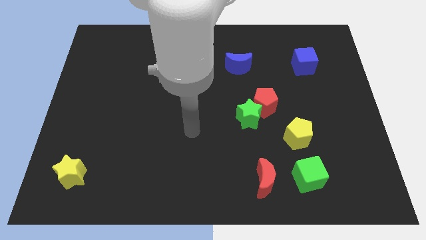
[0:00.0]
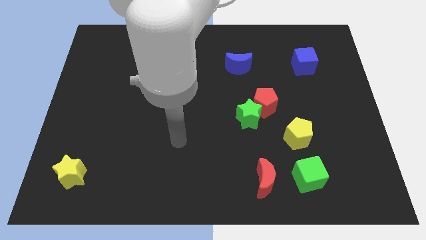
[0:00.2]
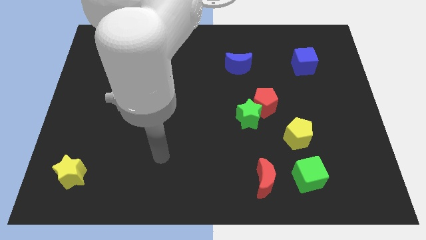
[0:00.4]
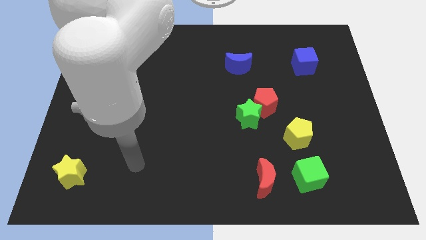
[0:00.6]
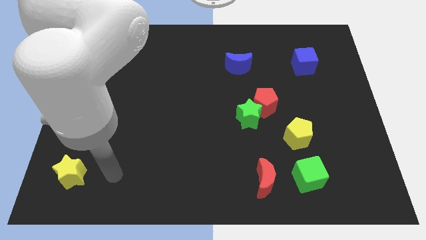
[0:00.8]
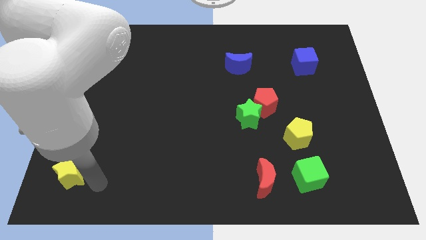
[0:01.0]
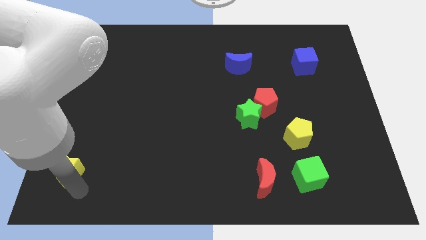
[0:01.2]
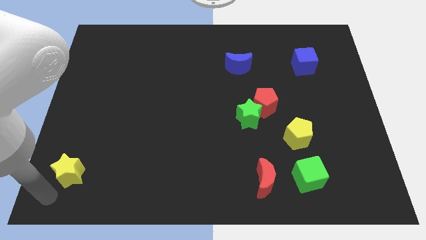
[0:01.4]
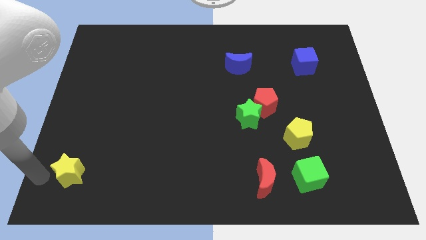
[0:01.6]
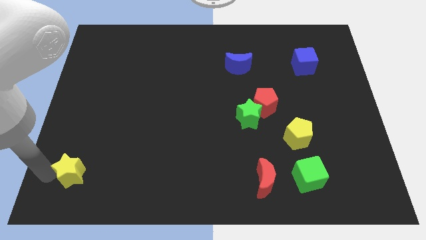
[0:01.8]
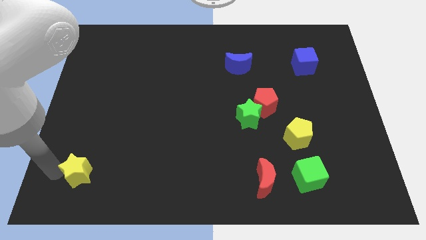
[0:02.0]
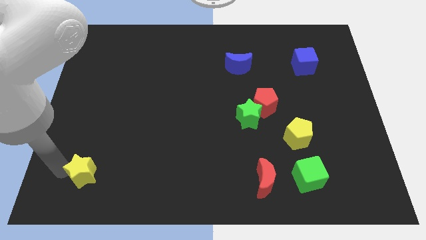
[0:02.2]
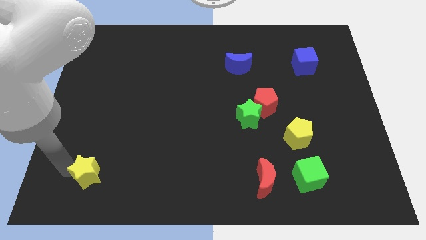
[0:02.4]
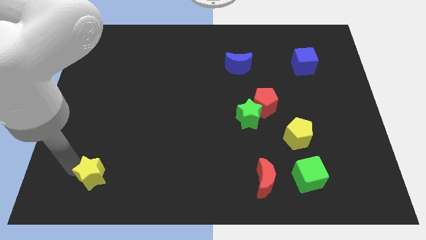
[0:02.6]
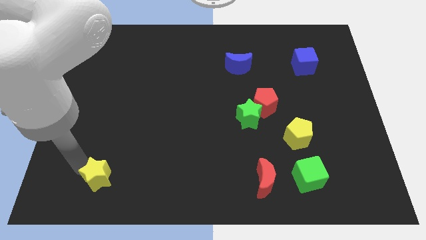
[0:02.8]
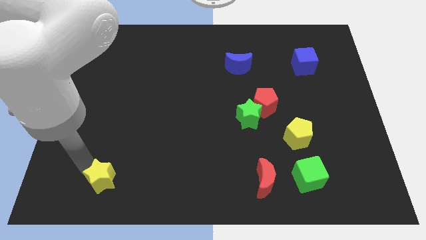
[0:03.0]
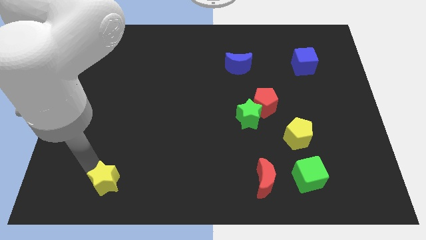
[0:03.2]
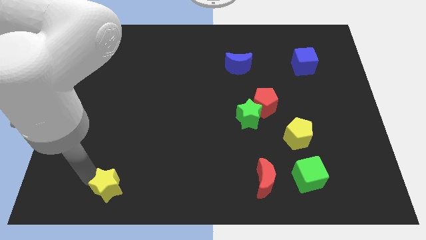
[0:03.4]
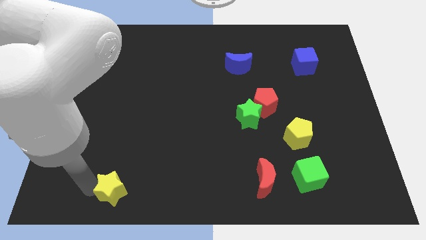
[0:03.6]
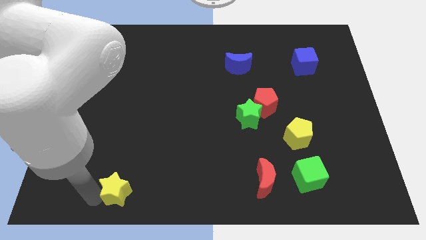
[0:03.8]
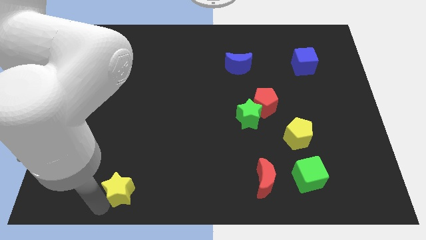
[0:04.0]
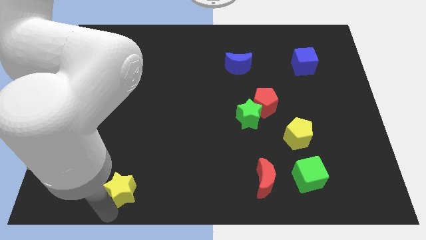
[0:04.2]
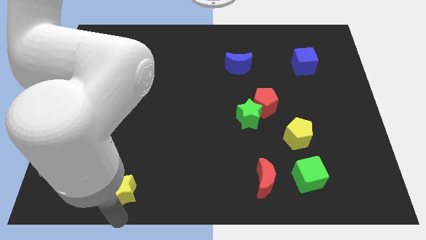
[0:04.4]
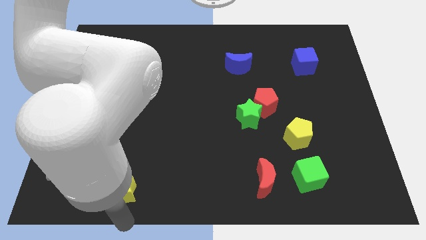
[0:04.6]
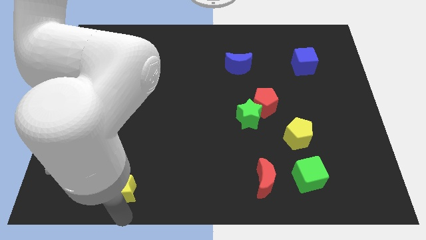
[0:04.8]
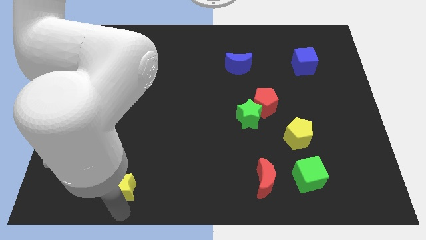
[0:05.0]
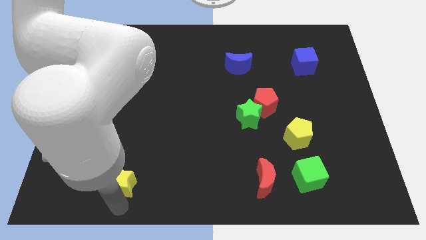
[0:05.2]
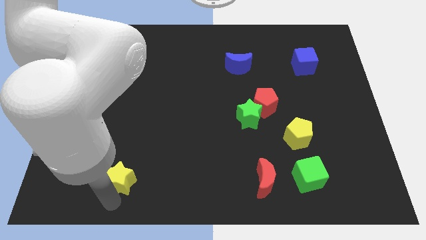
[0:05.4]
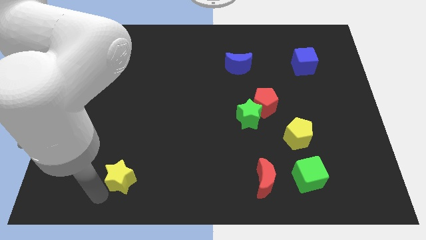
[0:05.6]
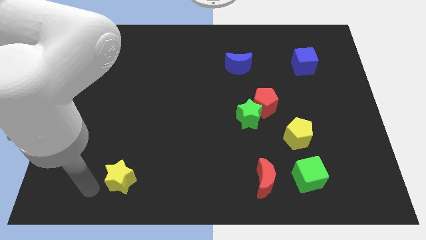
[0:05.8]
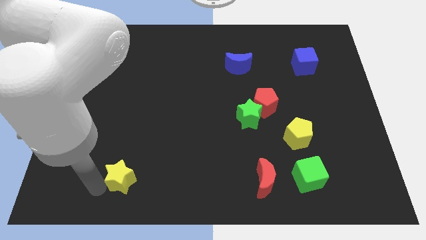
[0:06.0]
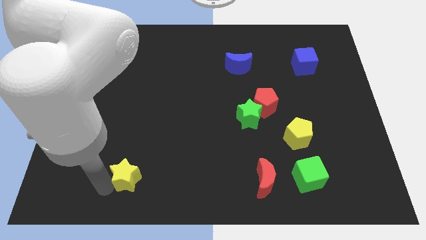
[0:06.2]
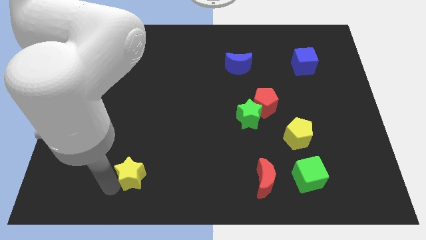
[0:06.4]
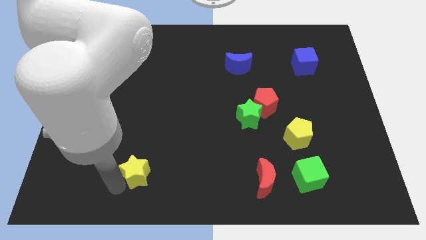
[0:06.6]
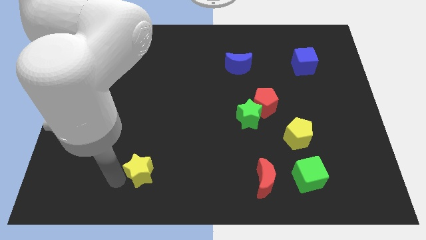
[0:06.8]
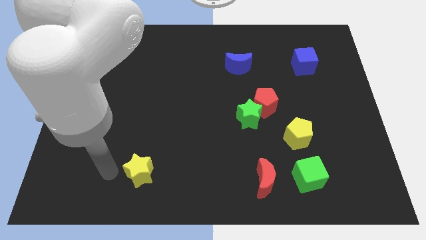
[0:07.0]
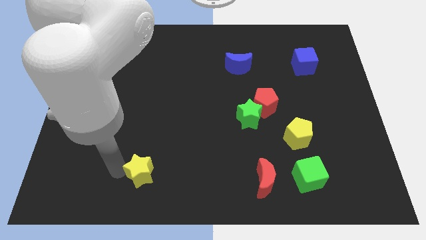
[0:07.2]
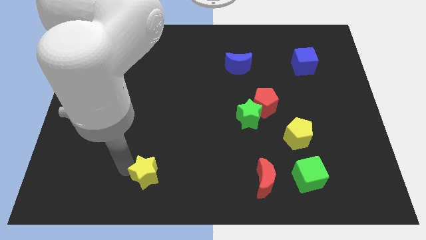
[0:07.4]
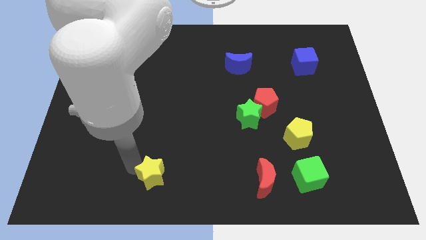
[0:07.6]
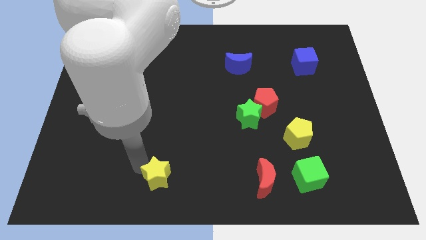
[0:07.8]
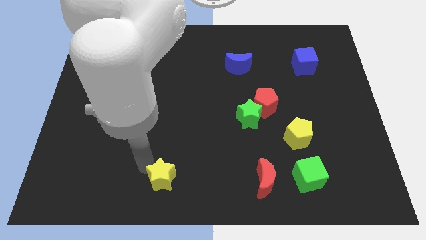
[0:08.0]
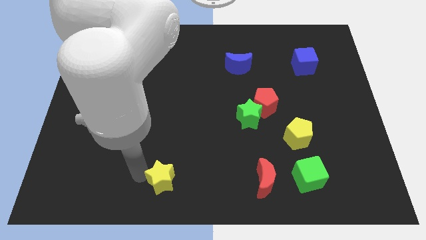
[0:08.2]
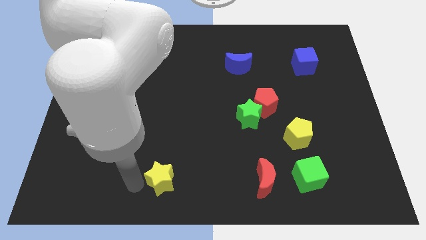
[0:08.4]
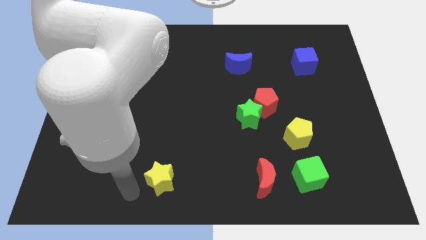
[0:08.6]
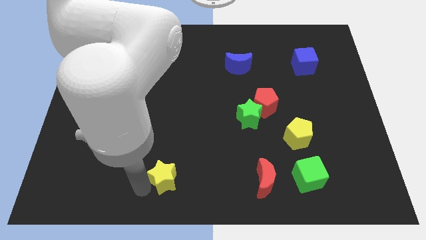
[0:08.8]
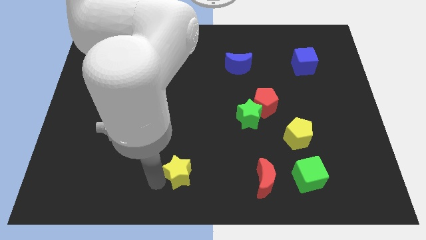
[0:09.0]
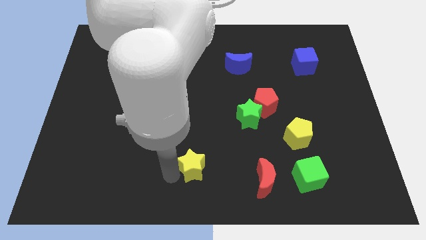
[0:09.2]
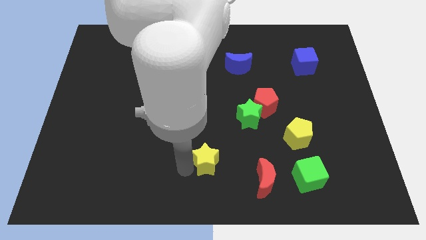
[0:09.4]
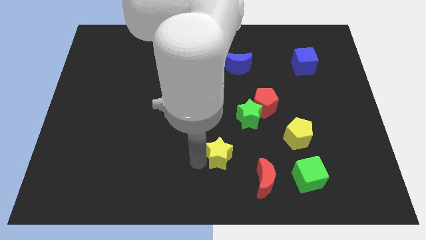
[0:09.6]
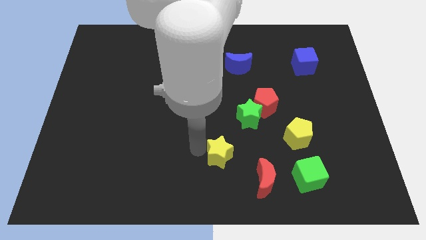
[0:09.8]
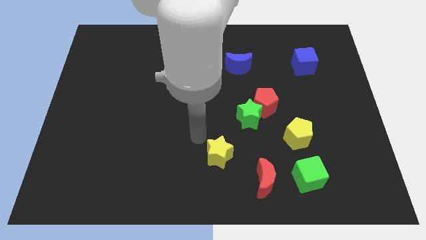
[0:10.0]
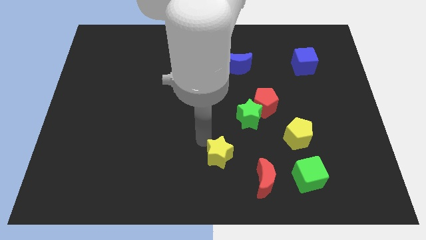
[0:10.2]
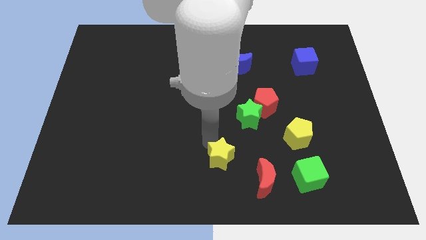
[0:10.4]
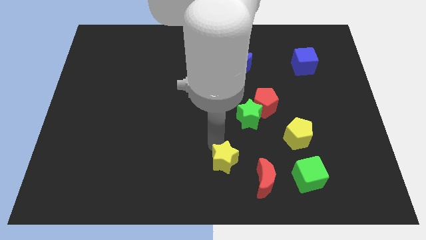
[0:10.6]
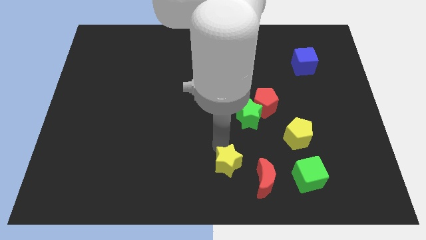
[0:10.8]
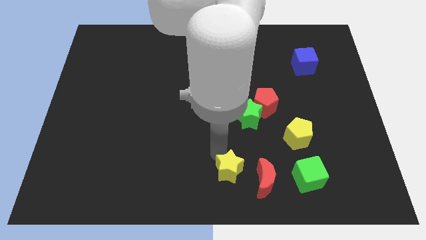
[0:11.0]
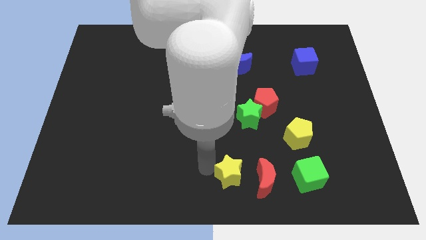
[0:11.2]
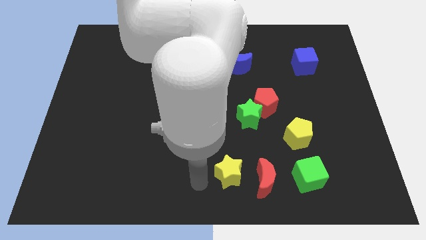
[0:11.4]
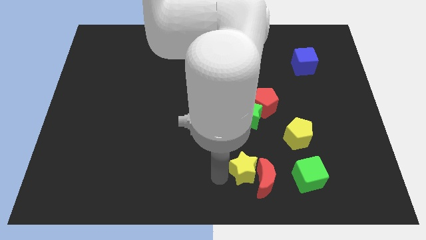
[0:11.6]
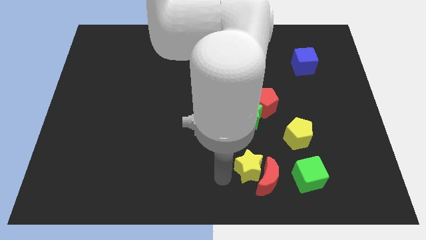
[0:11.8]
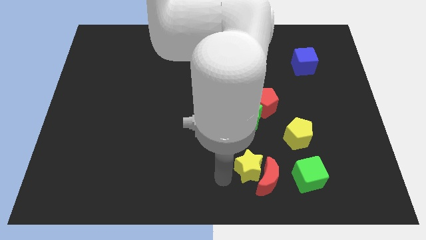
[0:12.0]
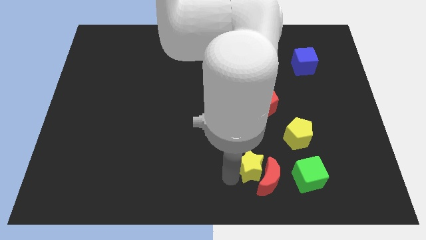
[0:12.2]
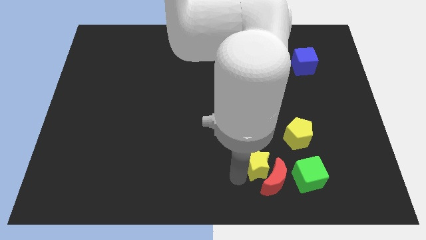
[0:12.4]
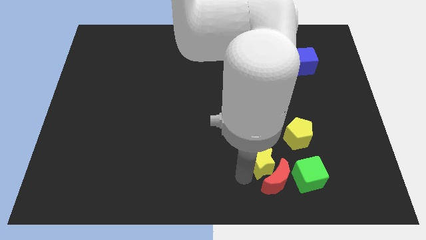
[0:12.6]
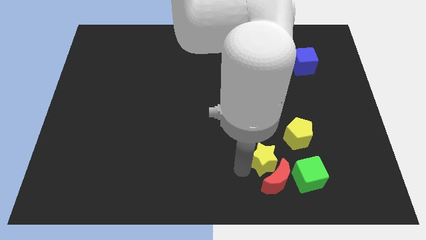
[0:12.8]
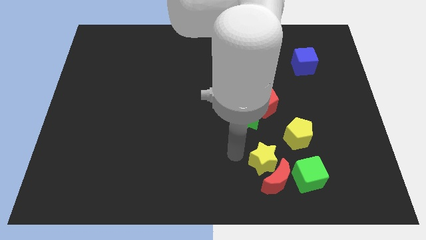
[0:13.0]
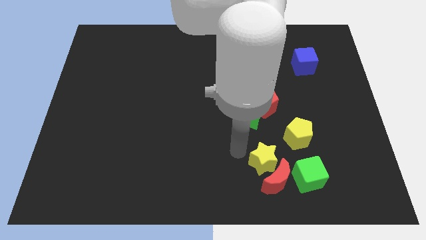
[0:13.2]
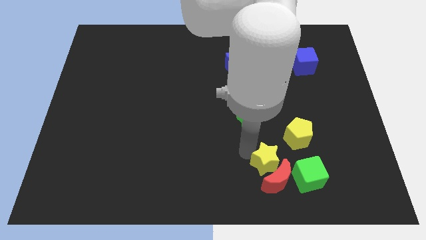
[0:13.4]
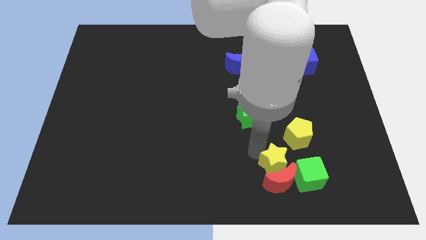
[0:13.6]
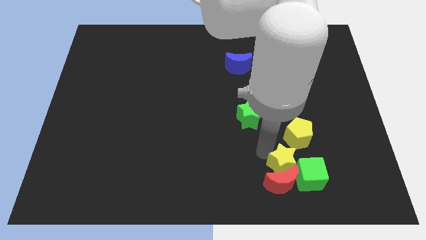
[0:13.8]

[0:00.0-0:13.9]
slide the yellow star next to the green cube

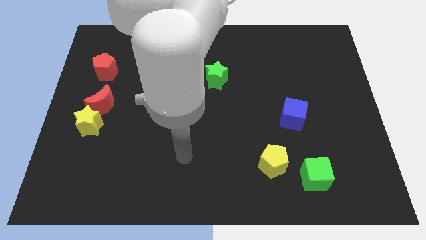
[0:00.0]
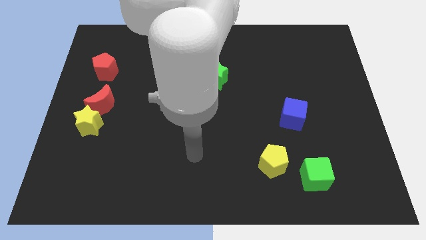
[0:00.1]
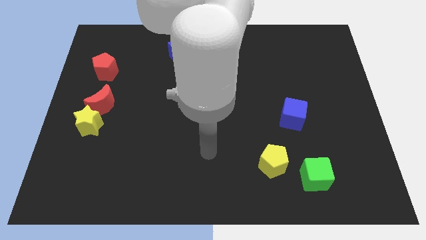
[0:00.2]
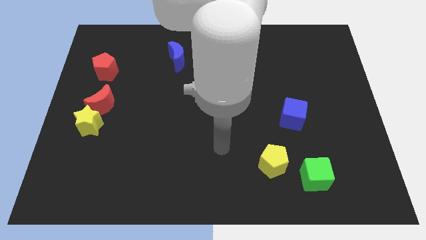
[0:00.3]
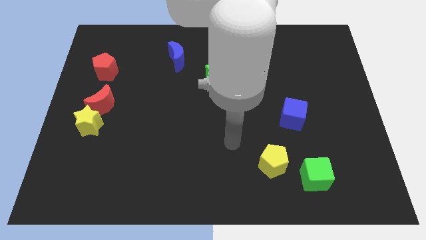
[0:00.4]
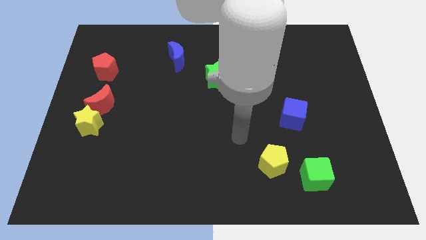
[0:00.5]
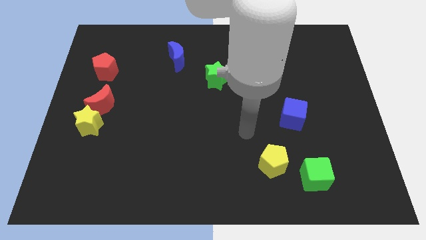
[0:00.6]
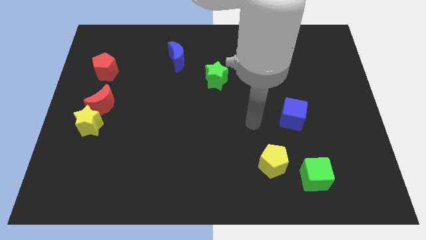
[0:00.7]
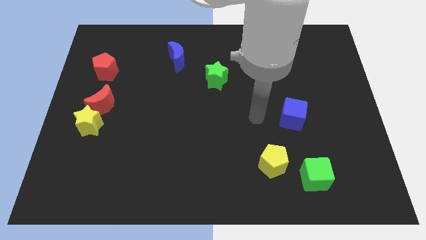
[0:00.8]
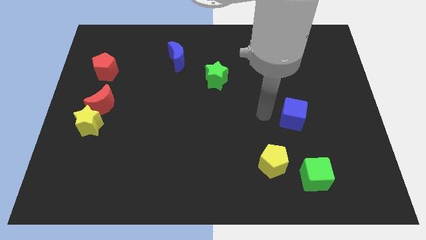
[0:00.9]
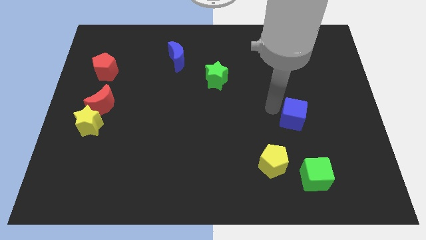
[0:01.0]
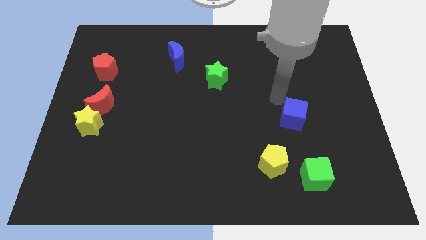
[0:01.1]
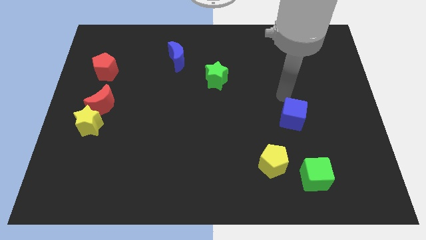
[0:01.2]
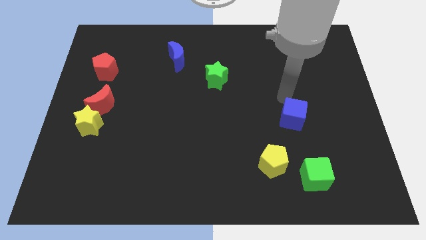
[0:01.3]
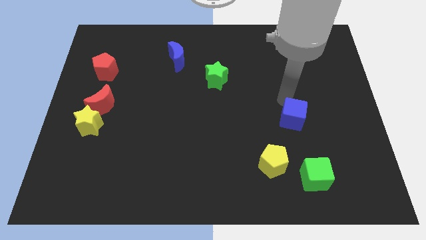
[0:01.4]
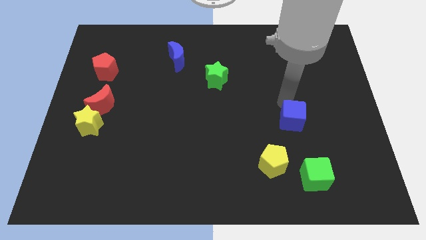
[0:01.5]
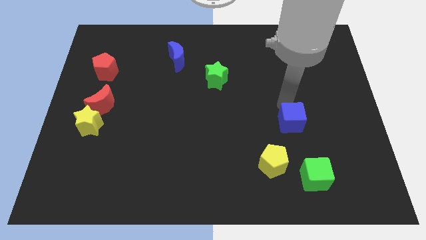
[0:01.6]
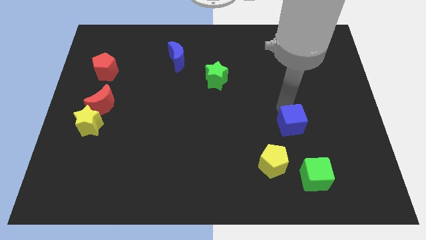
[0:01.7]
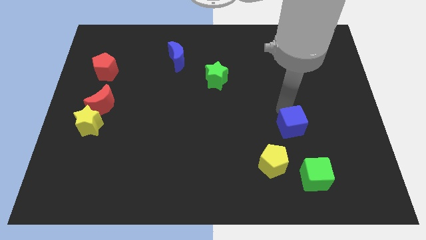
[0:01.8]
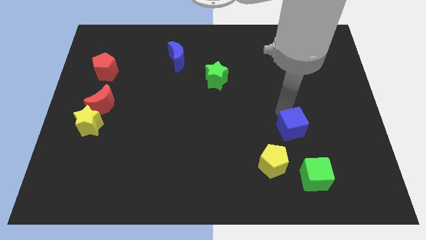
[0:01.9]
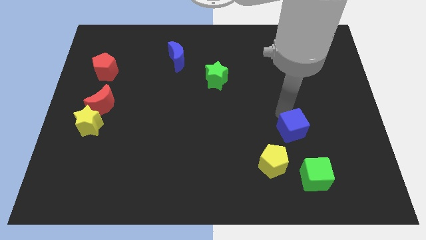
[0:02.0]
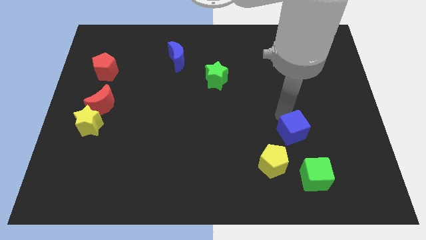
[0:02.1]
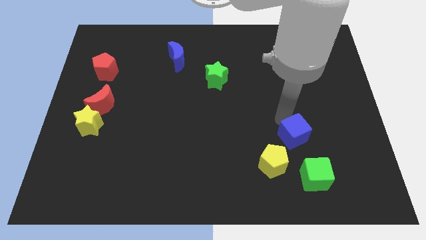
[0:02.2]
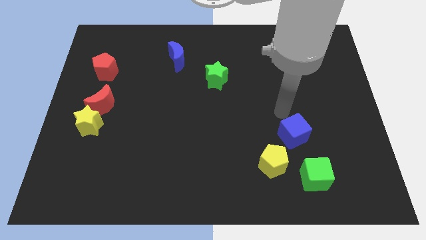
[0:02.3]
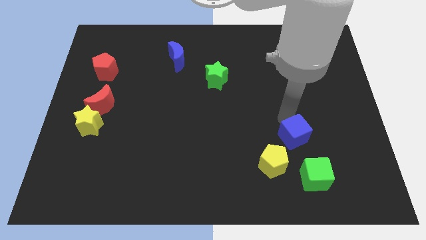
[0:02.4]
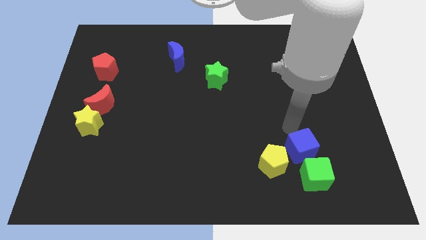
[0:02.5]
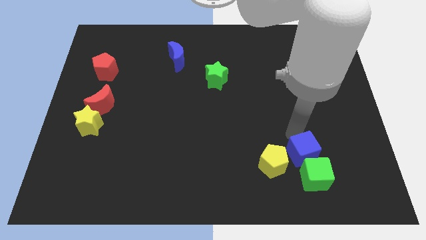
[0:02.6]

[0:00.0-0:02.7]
push the blue cube next to the green cube
